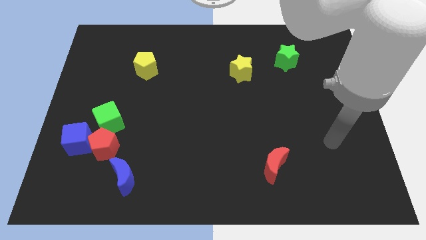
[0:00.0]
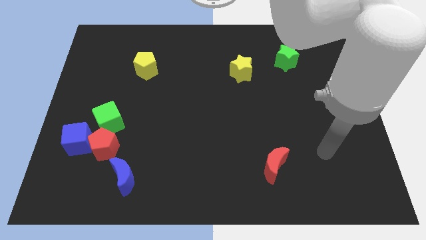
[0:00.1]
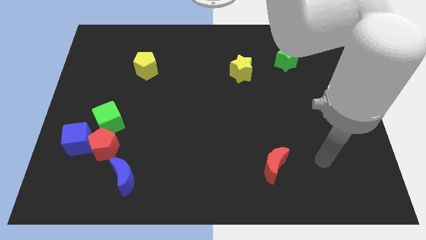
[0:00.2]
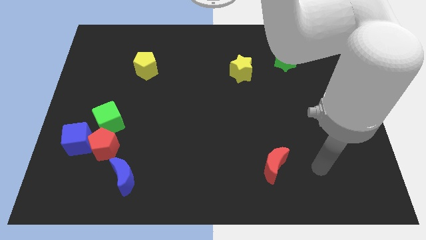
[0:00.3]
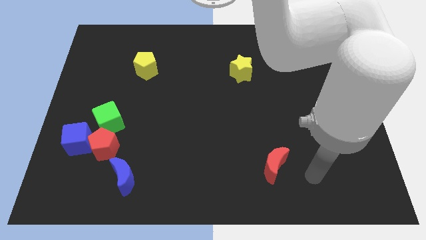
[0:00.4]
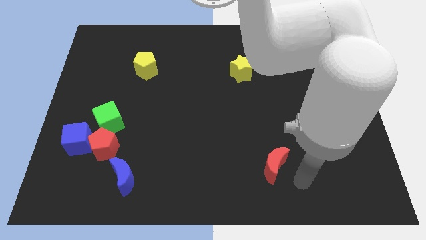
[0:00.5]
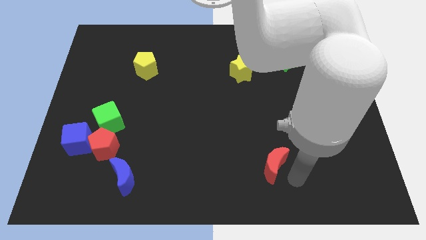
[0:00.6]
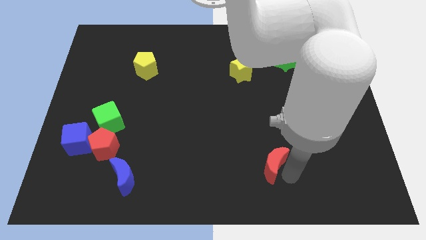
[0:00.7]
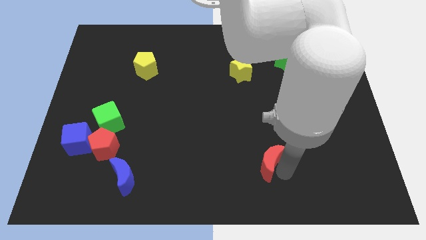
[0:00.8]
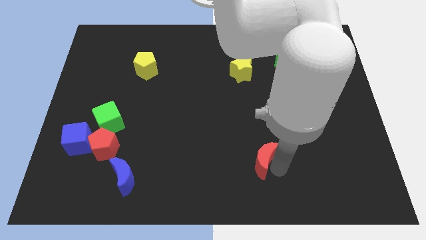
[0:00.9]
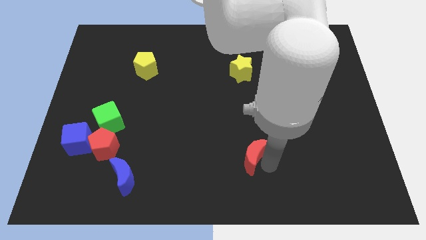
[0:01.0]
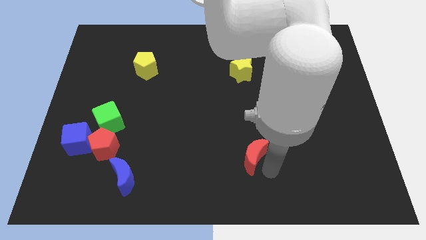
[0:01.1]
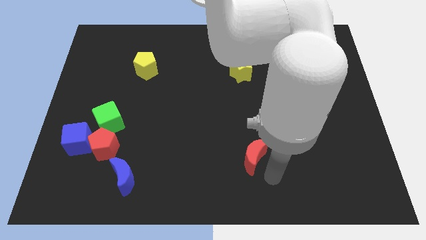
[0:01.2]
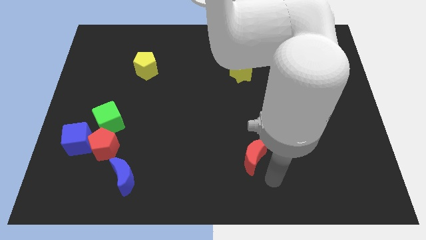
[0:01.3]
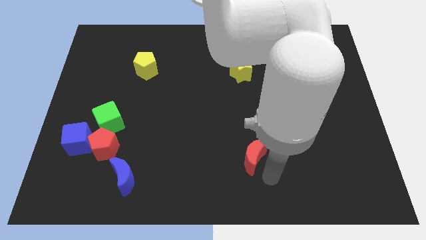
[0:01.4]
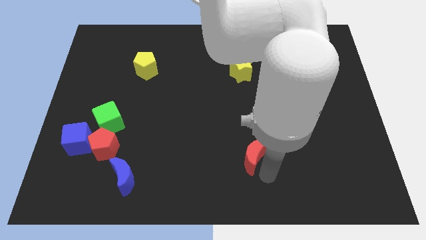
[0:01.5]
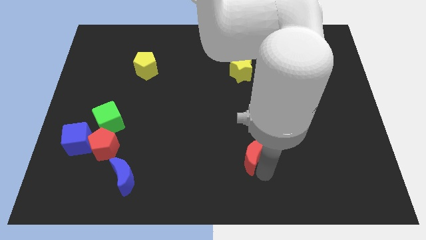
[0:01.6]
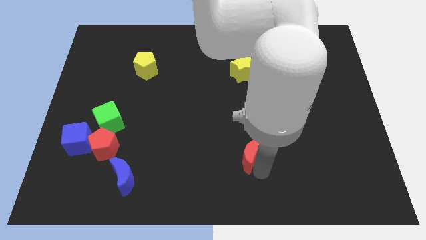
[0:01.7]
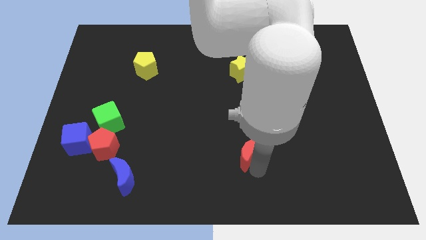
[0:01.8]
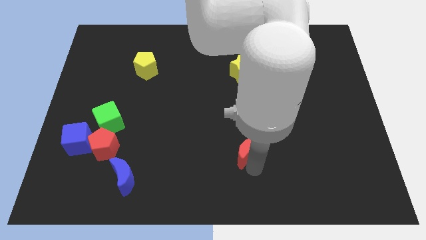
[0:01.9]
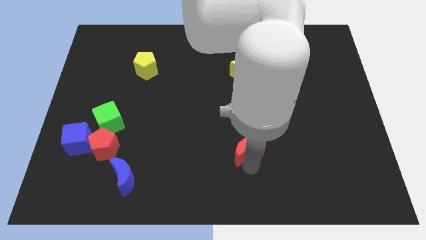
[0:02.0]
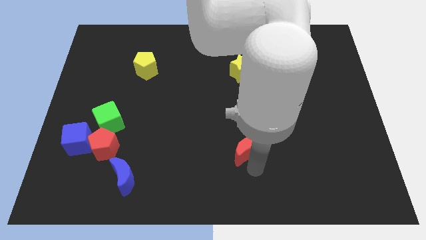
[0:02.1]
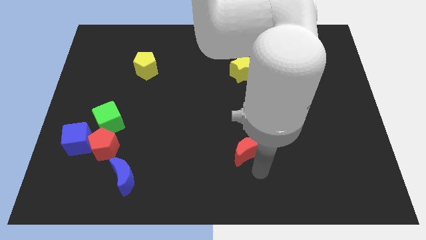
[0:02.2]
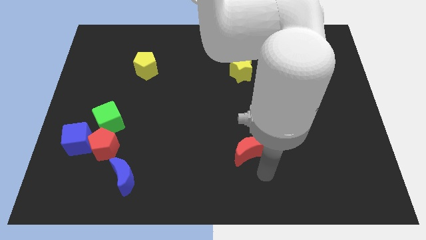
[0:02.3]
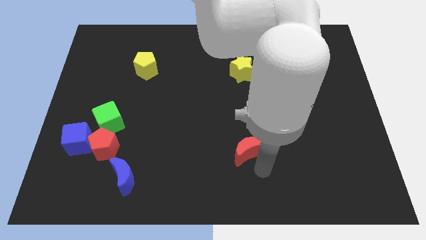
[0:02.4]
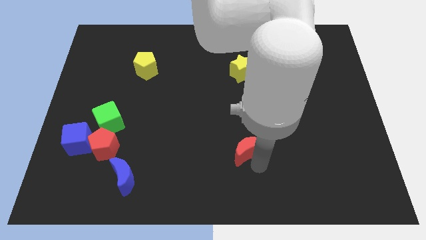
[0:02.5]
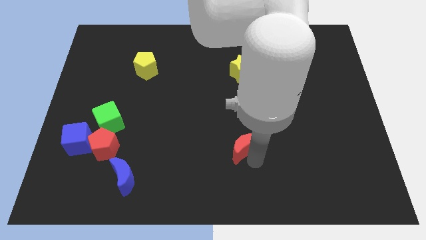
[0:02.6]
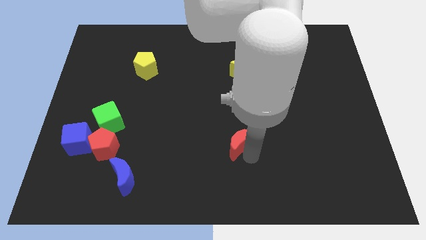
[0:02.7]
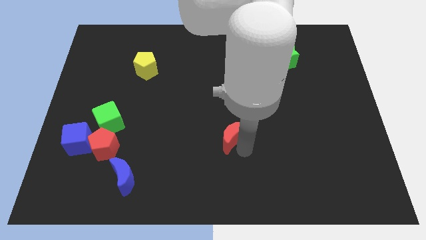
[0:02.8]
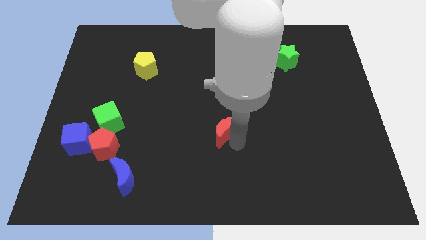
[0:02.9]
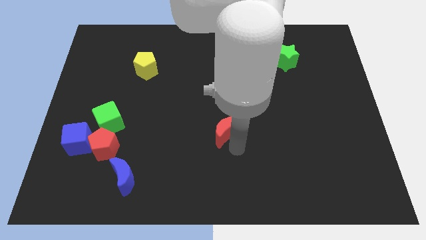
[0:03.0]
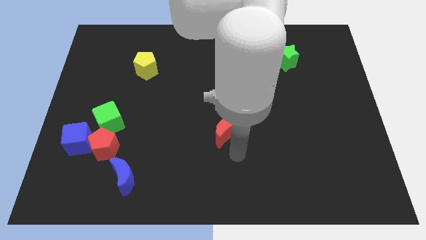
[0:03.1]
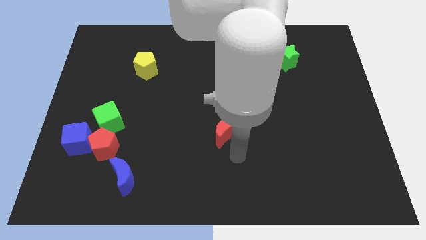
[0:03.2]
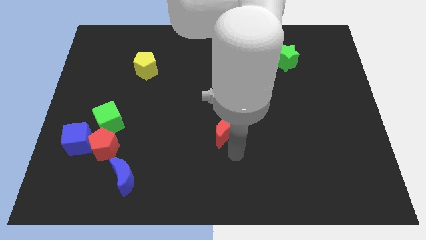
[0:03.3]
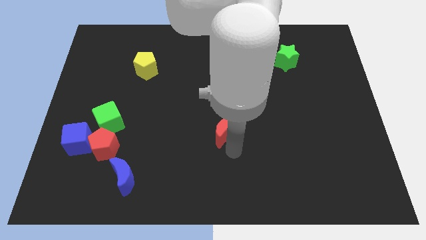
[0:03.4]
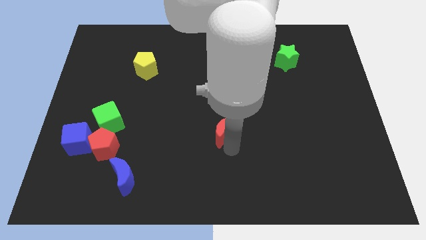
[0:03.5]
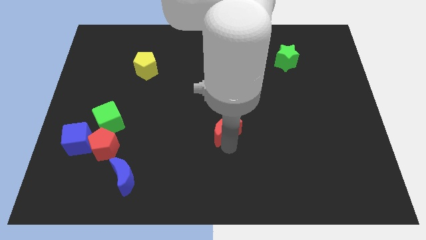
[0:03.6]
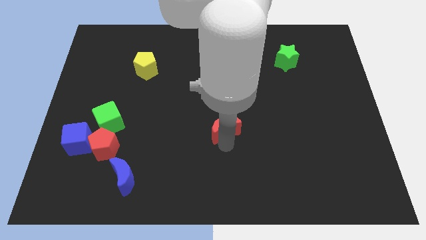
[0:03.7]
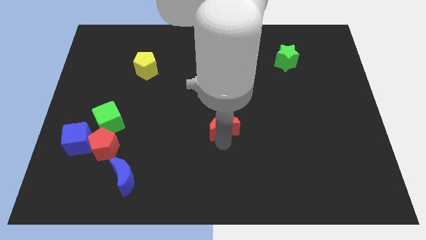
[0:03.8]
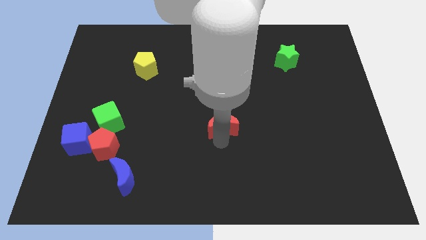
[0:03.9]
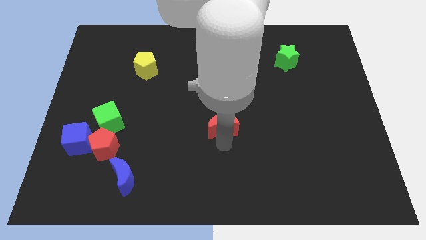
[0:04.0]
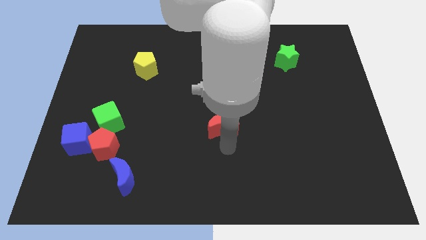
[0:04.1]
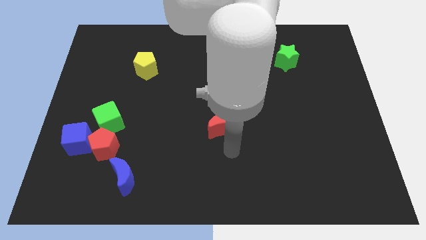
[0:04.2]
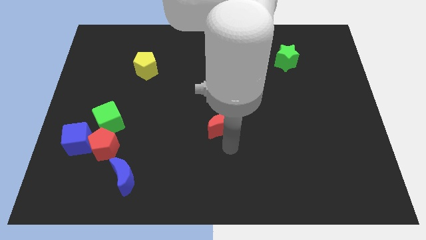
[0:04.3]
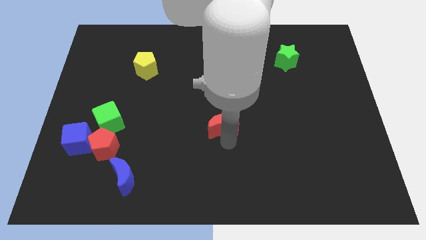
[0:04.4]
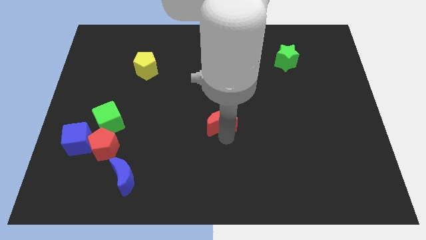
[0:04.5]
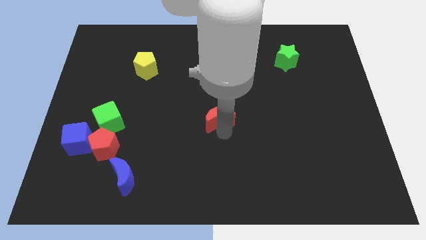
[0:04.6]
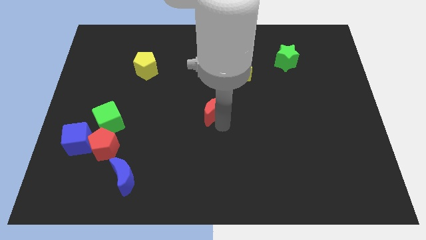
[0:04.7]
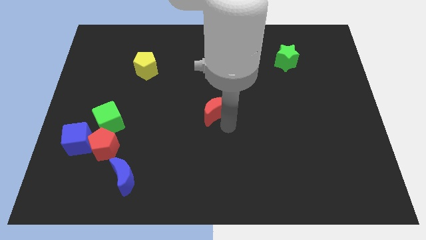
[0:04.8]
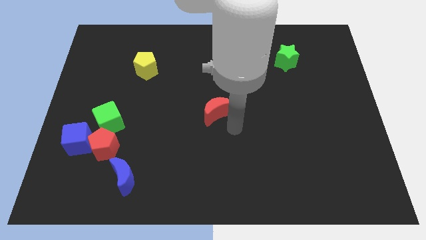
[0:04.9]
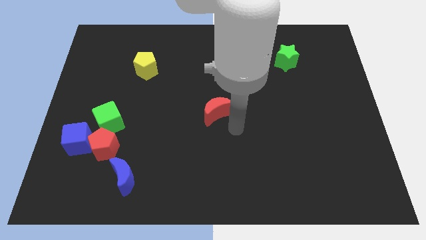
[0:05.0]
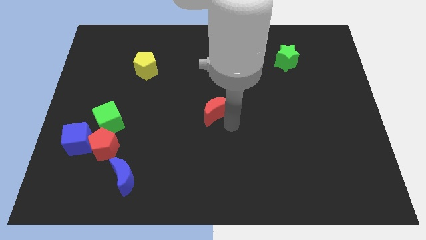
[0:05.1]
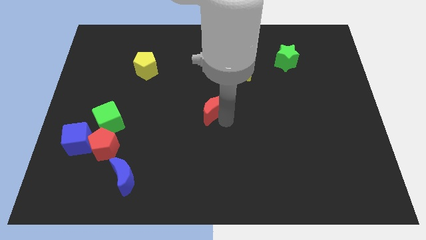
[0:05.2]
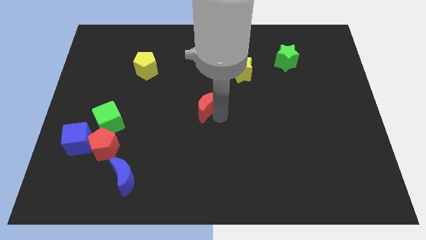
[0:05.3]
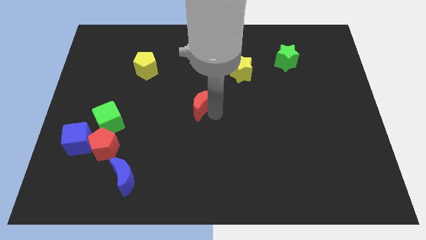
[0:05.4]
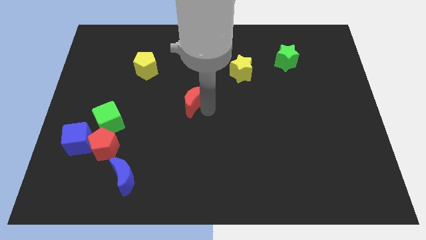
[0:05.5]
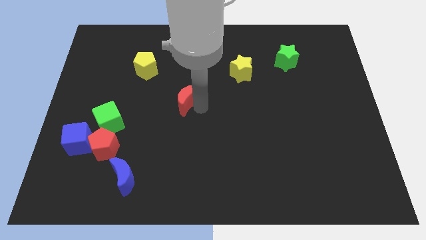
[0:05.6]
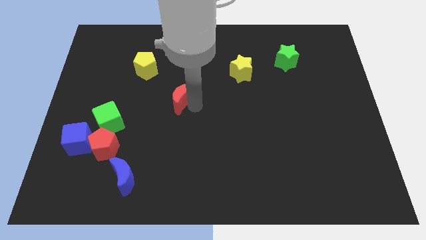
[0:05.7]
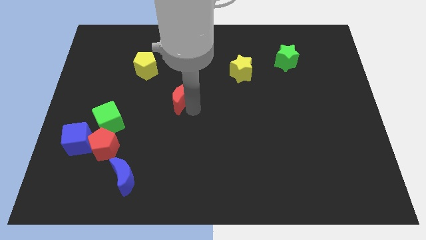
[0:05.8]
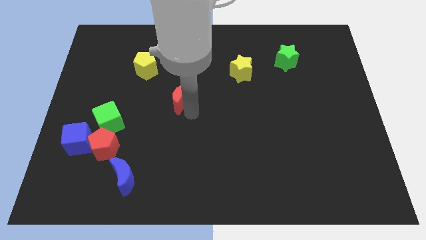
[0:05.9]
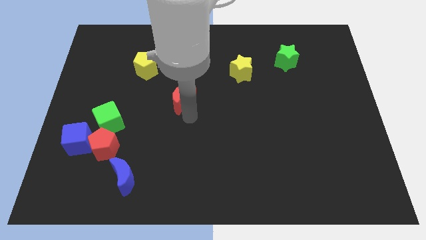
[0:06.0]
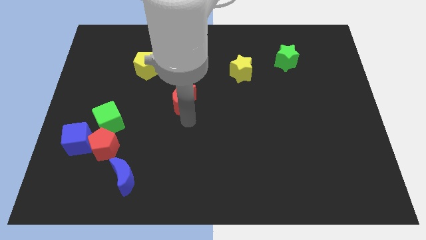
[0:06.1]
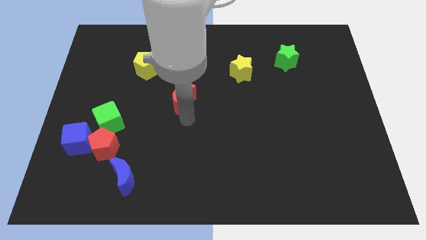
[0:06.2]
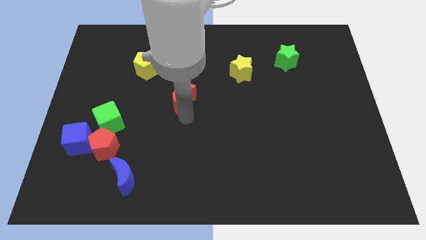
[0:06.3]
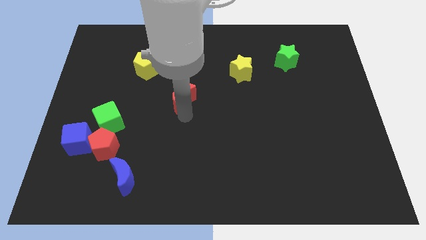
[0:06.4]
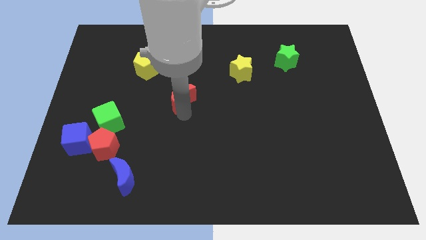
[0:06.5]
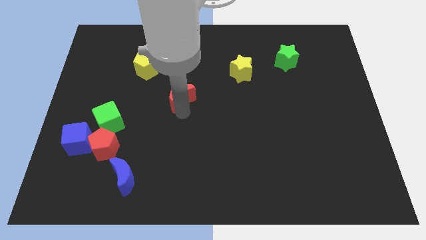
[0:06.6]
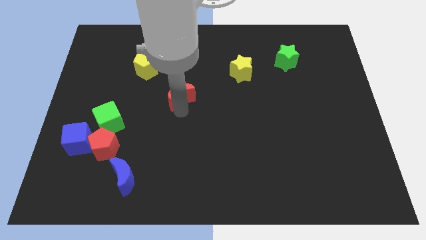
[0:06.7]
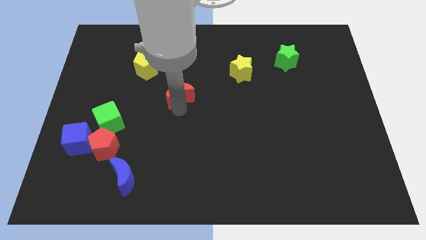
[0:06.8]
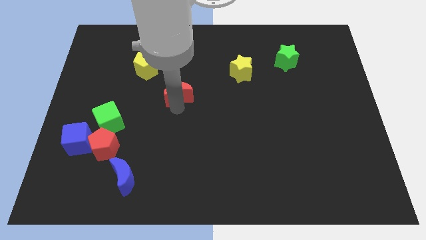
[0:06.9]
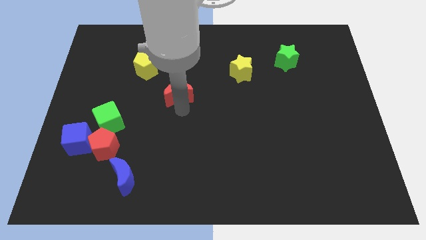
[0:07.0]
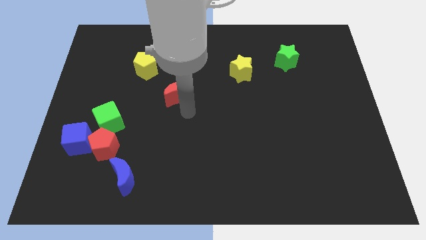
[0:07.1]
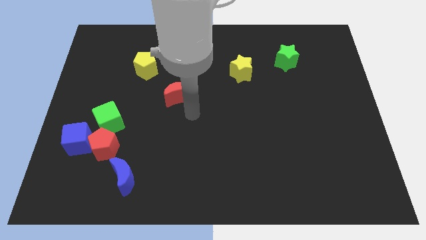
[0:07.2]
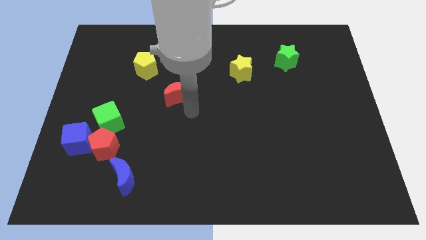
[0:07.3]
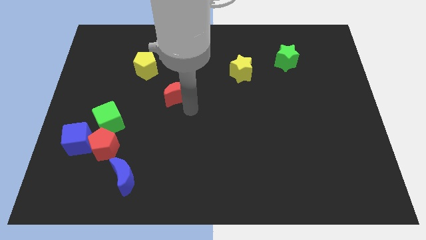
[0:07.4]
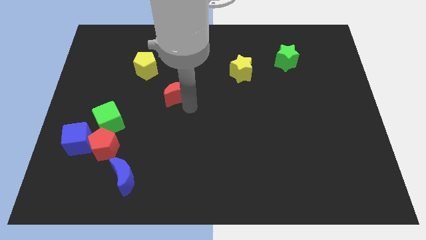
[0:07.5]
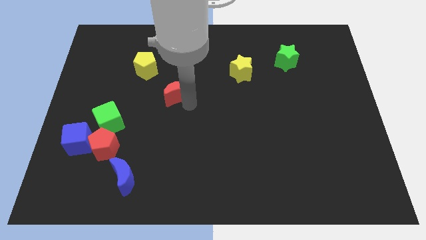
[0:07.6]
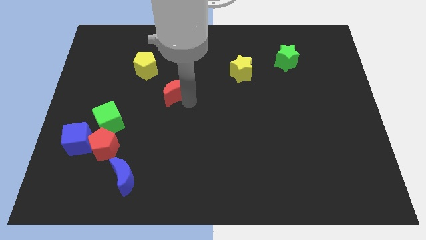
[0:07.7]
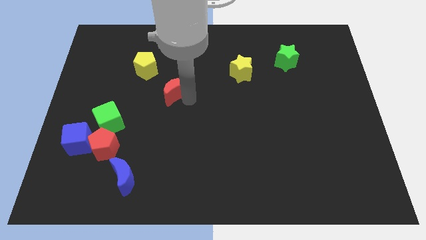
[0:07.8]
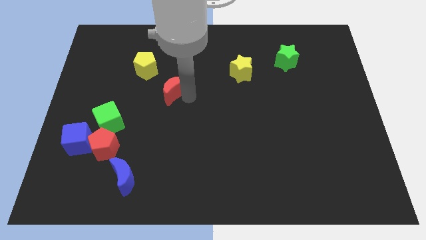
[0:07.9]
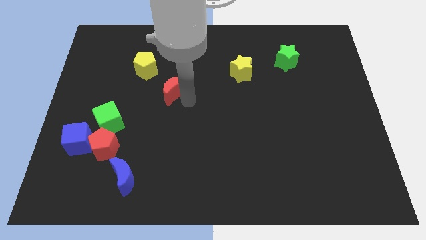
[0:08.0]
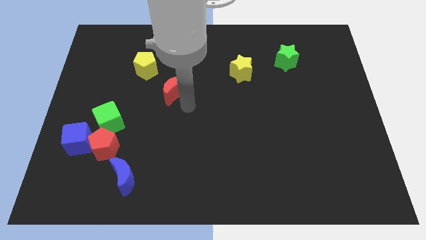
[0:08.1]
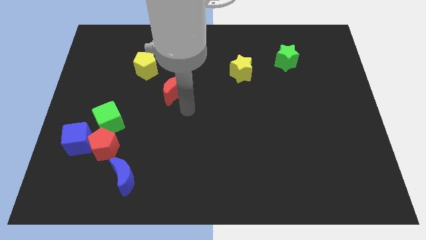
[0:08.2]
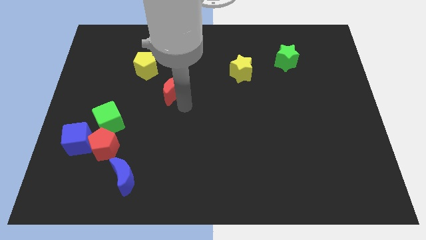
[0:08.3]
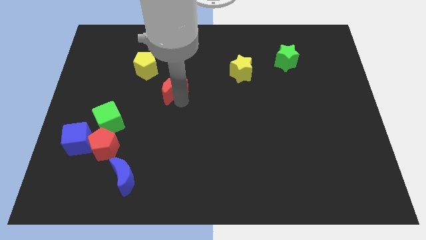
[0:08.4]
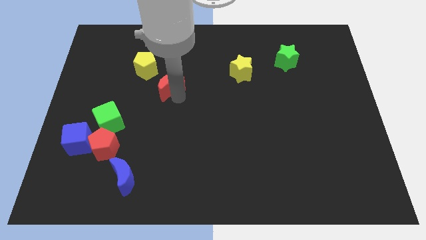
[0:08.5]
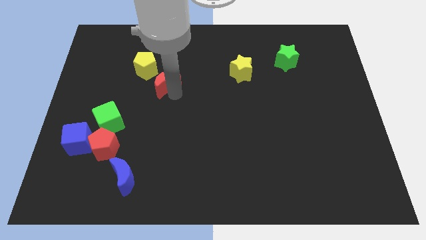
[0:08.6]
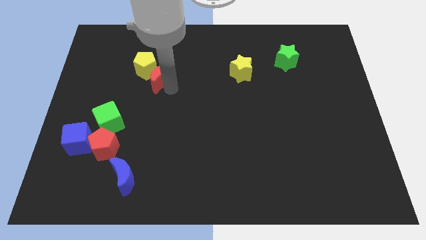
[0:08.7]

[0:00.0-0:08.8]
push the red moon towards the yellow pentagon
